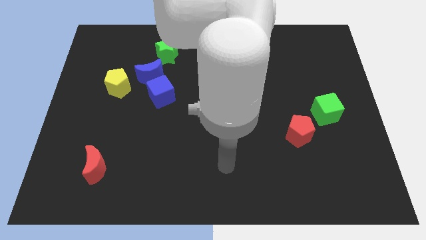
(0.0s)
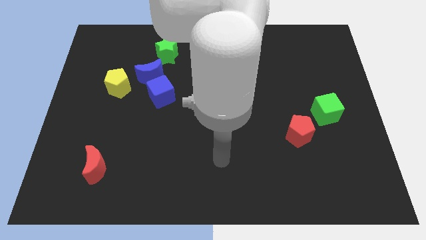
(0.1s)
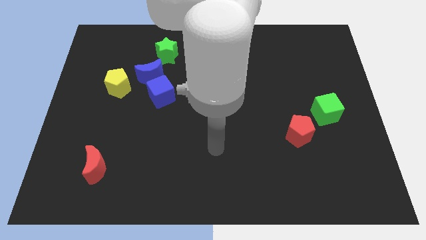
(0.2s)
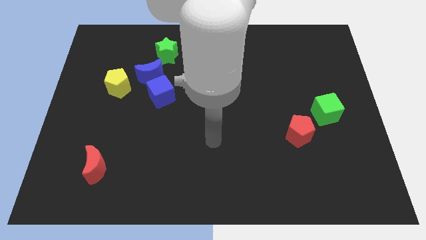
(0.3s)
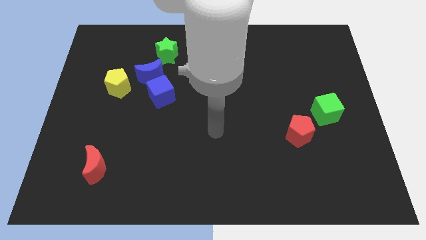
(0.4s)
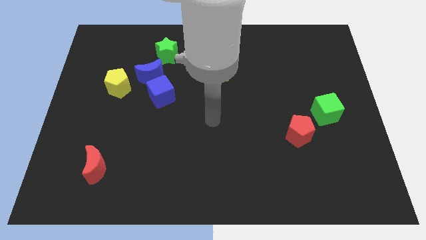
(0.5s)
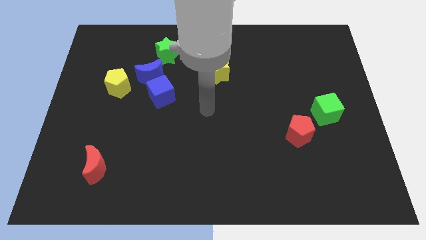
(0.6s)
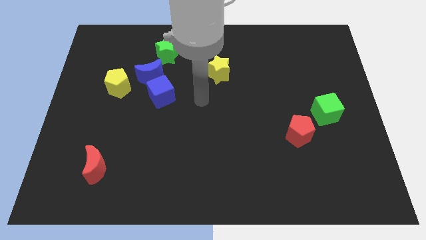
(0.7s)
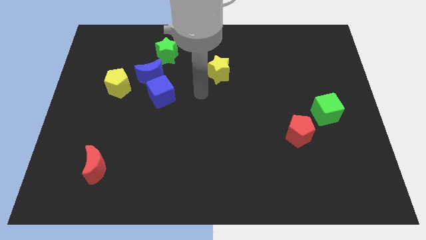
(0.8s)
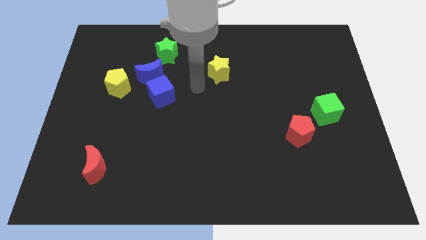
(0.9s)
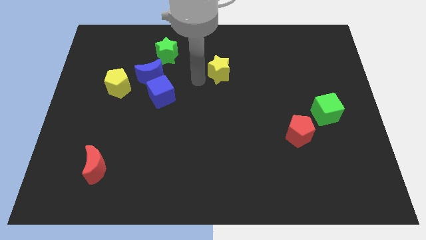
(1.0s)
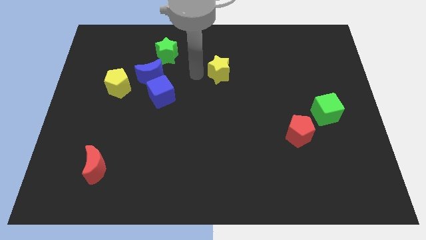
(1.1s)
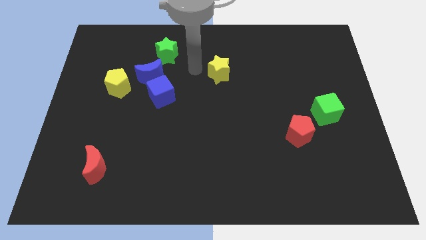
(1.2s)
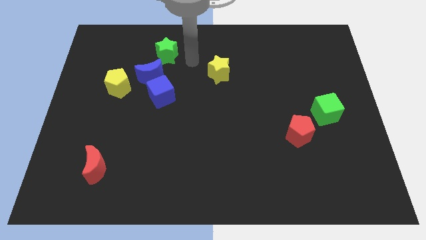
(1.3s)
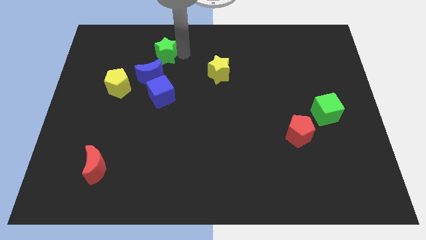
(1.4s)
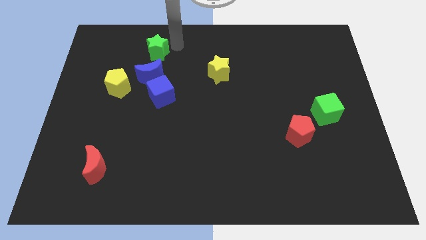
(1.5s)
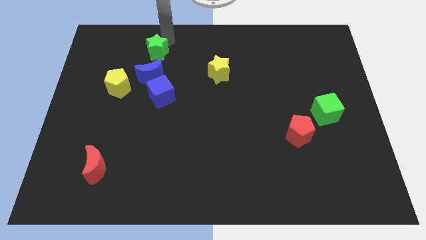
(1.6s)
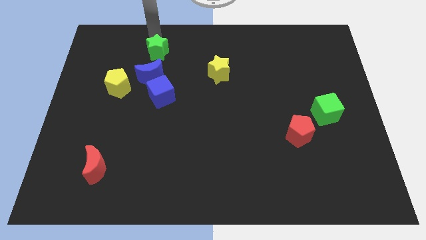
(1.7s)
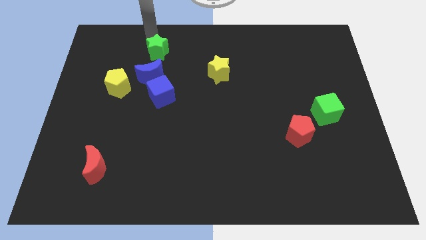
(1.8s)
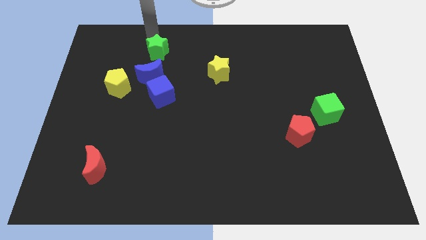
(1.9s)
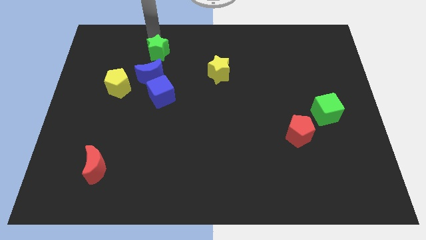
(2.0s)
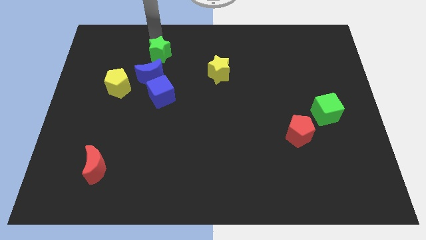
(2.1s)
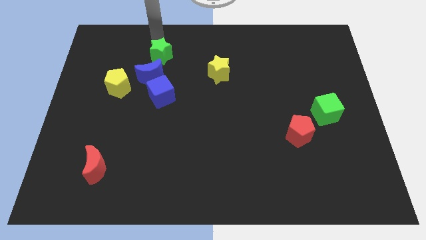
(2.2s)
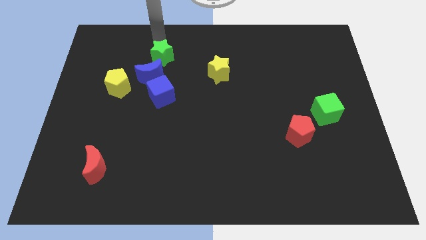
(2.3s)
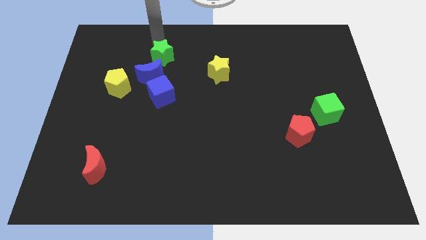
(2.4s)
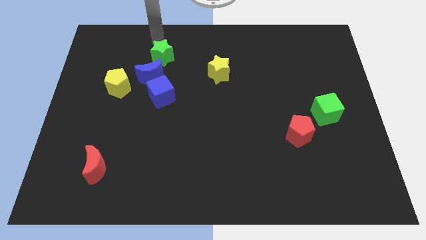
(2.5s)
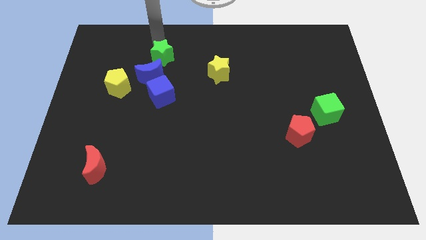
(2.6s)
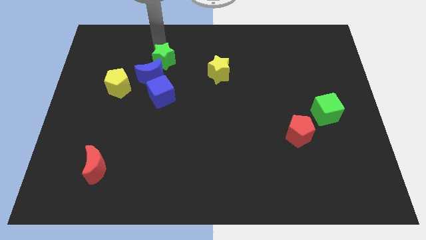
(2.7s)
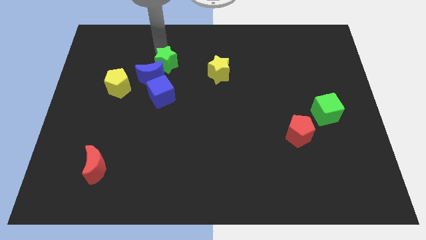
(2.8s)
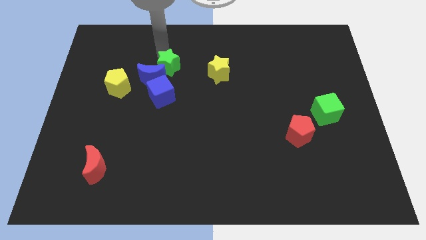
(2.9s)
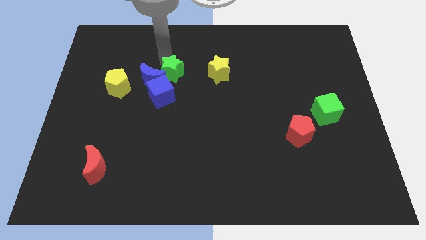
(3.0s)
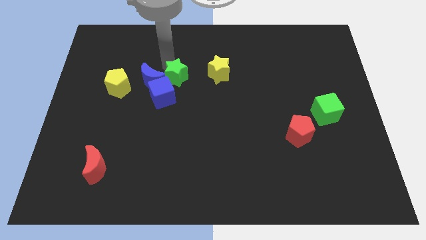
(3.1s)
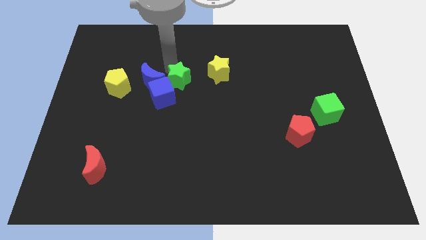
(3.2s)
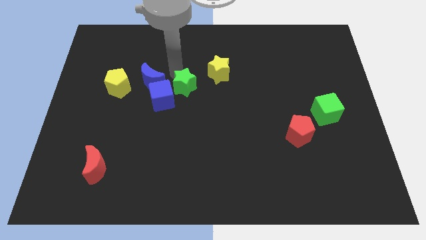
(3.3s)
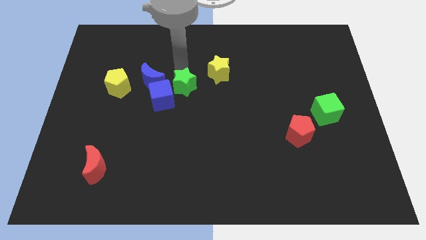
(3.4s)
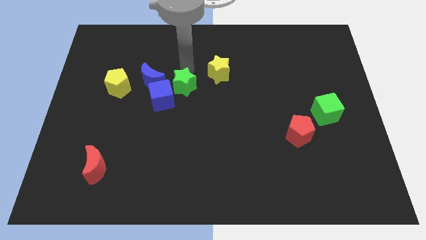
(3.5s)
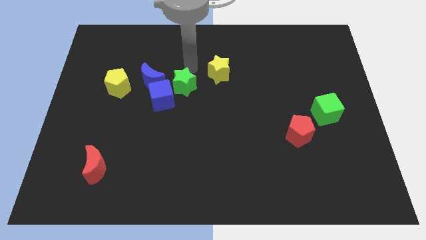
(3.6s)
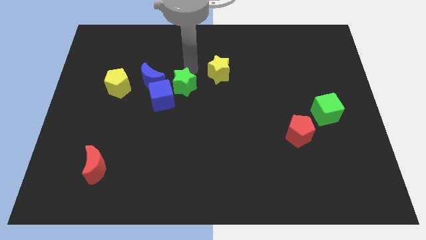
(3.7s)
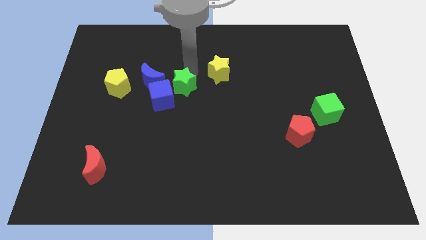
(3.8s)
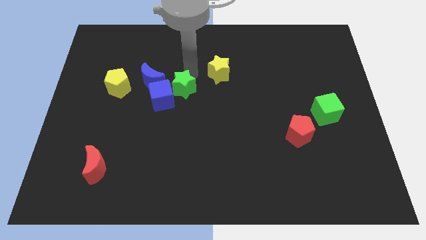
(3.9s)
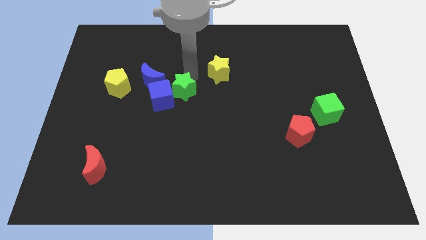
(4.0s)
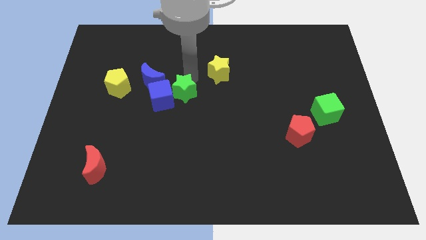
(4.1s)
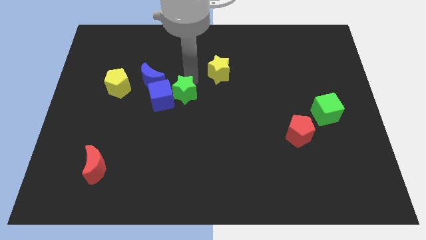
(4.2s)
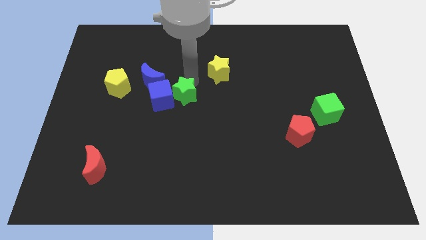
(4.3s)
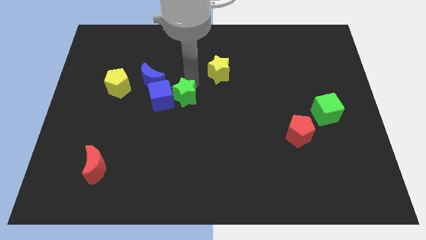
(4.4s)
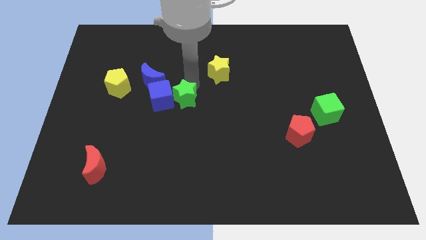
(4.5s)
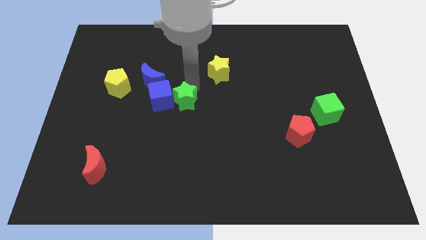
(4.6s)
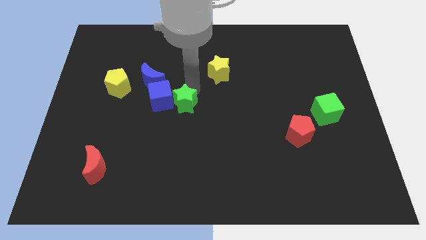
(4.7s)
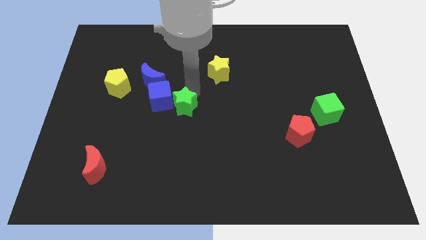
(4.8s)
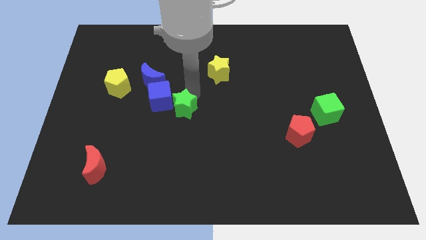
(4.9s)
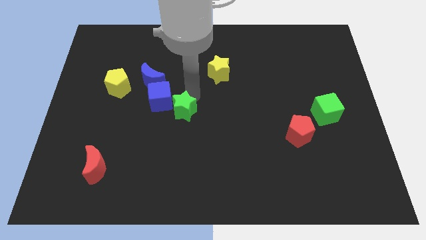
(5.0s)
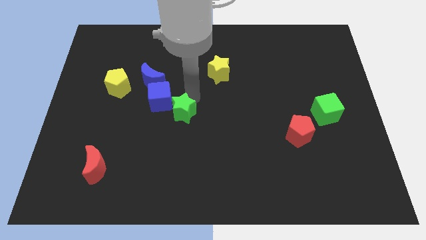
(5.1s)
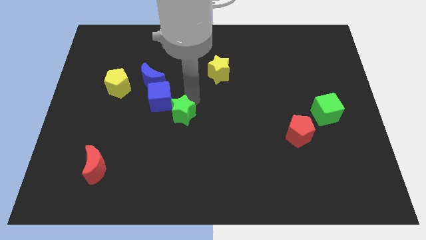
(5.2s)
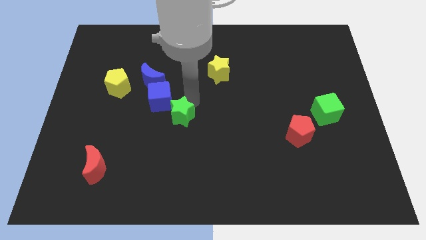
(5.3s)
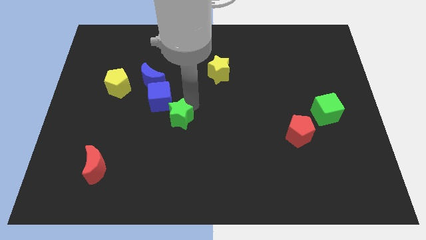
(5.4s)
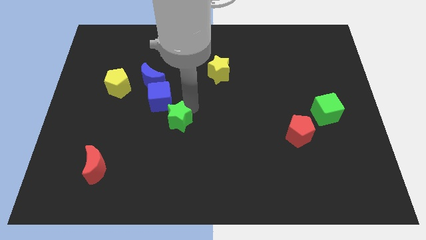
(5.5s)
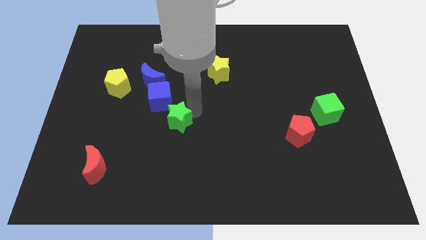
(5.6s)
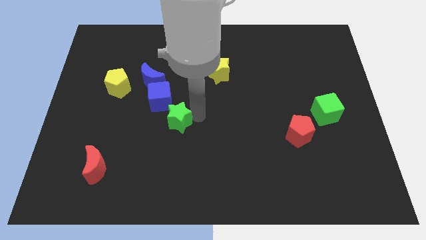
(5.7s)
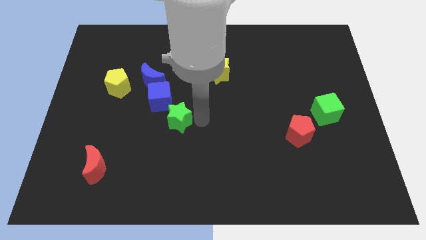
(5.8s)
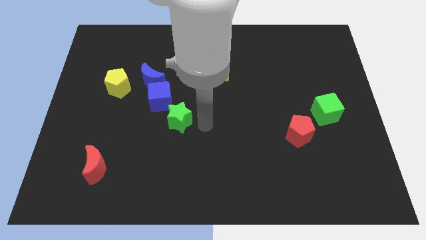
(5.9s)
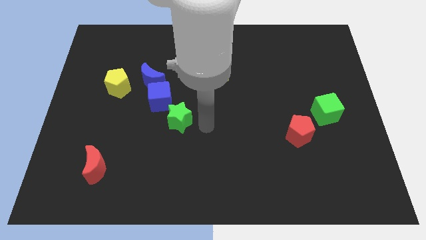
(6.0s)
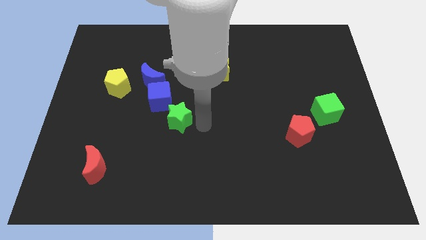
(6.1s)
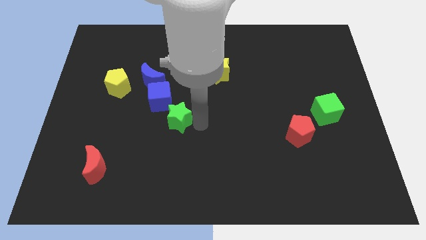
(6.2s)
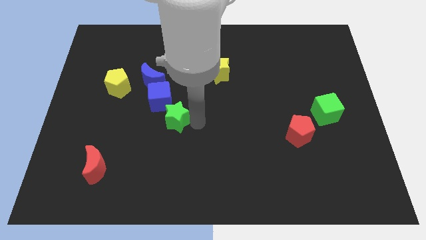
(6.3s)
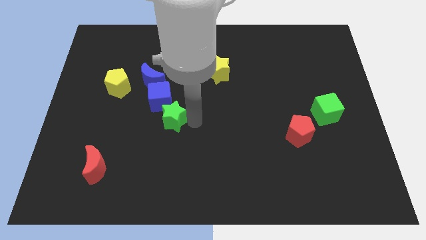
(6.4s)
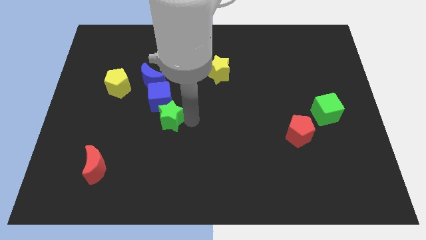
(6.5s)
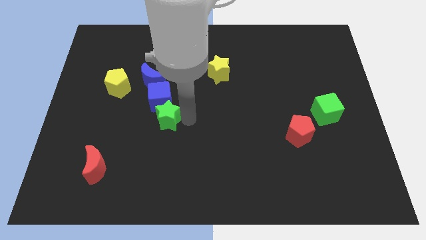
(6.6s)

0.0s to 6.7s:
move the green star below the blue moon

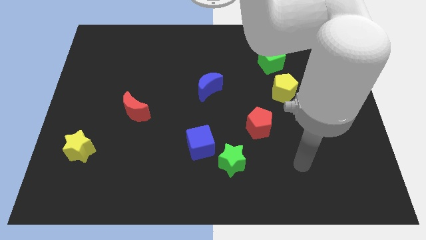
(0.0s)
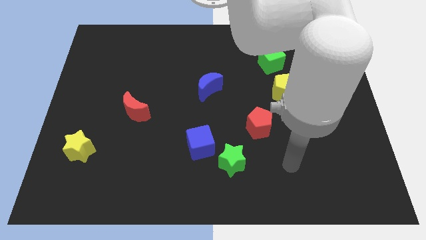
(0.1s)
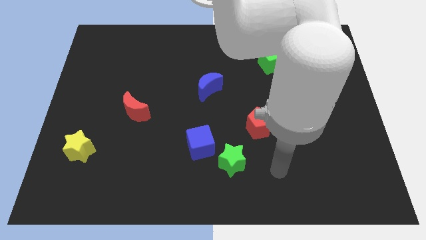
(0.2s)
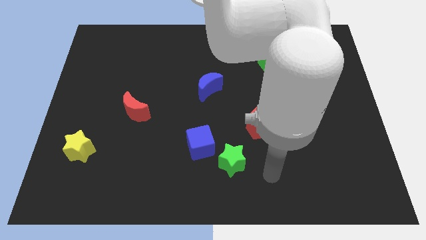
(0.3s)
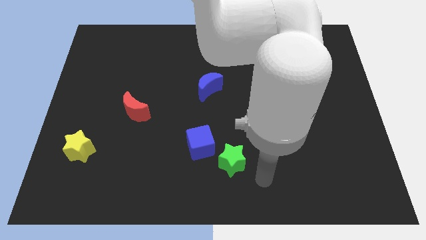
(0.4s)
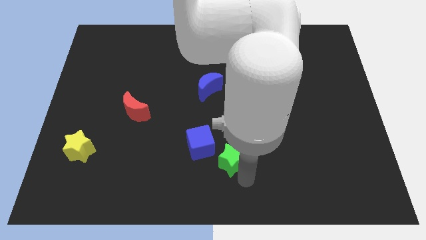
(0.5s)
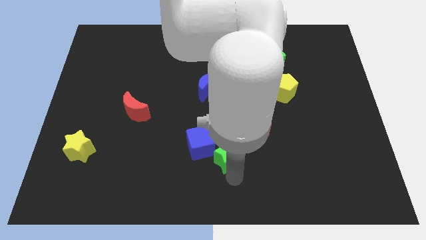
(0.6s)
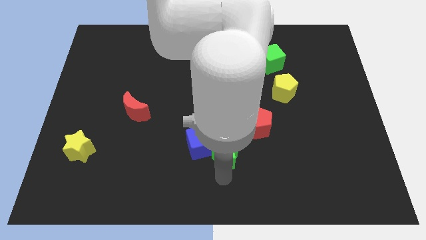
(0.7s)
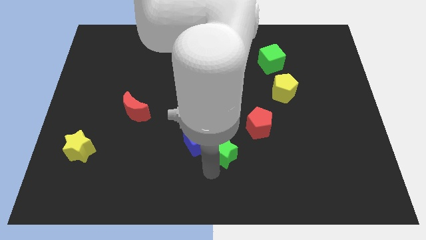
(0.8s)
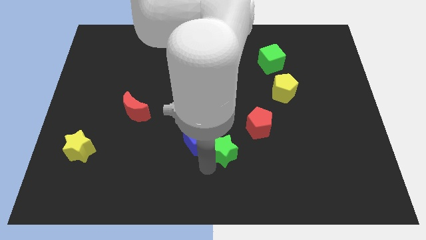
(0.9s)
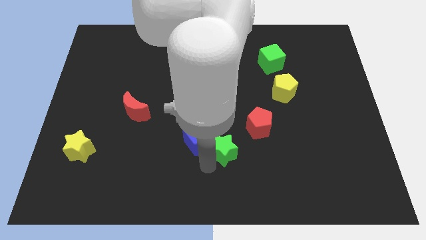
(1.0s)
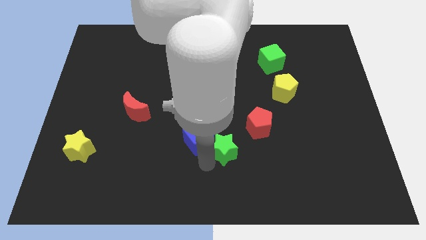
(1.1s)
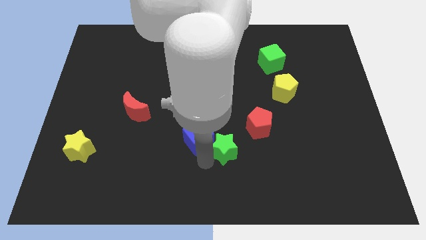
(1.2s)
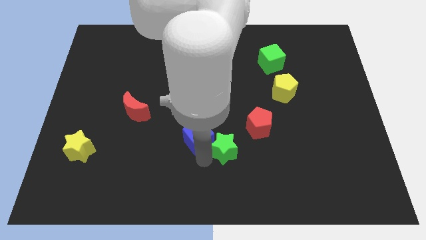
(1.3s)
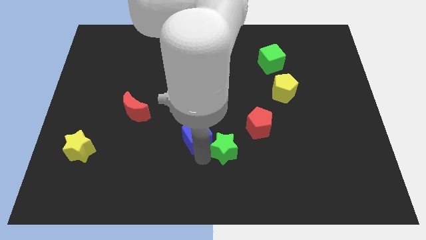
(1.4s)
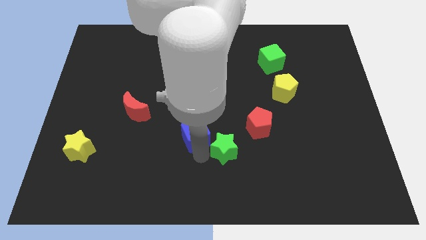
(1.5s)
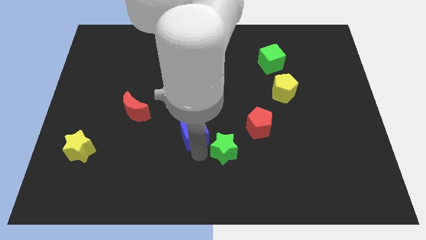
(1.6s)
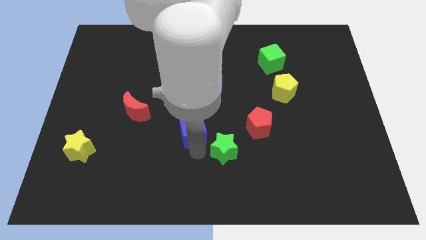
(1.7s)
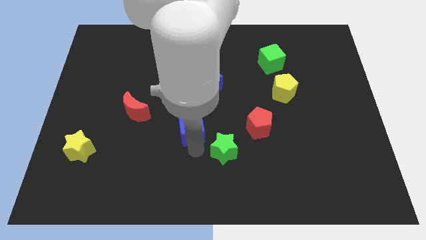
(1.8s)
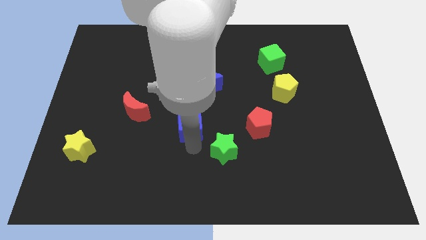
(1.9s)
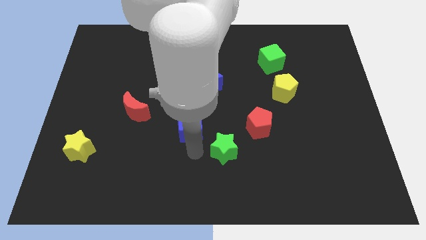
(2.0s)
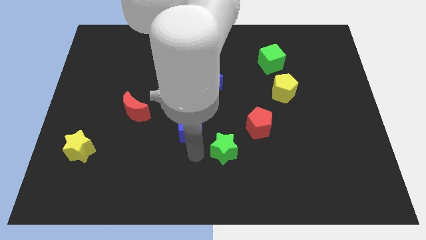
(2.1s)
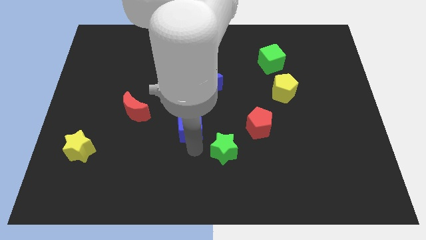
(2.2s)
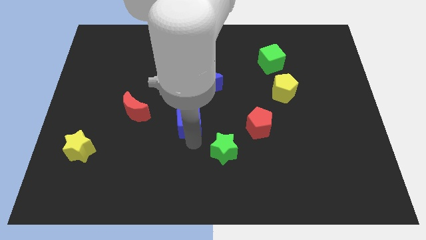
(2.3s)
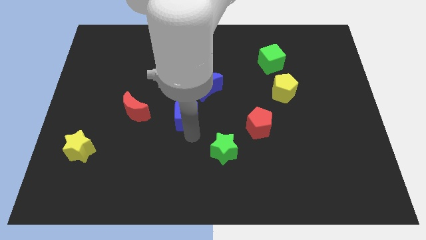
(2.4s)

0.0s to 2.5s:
slide the blue cube to the bottom left side of the blue moon
